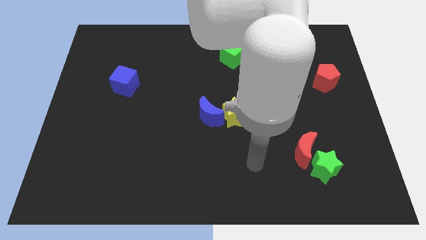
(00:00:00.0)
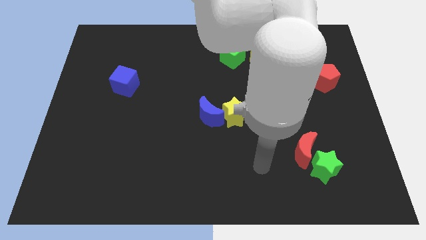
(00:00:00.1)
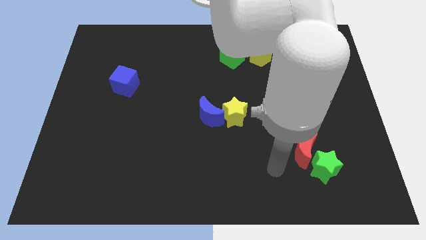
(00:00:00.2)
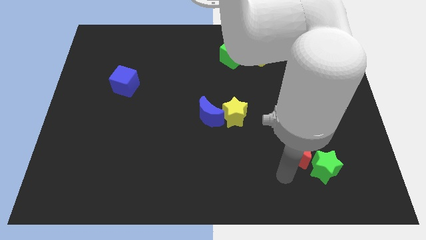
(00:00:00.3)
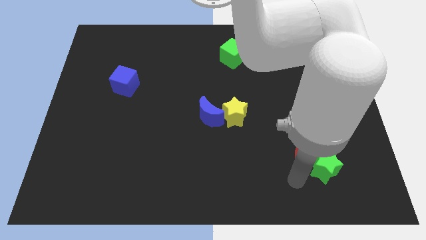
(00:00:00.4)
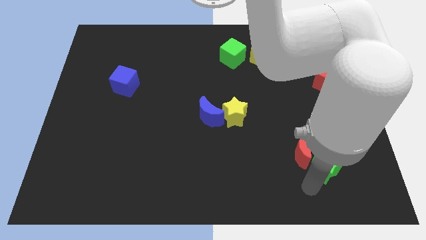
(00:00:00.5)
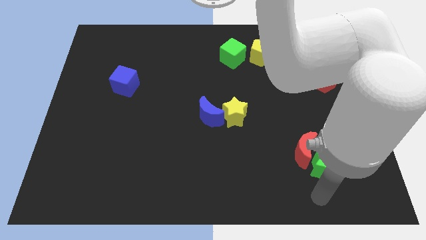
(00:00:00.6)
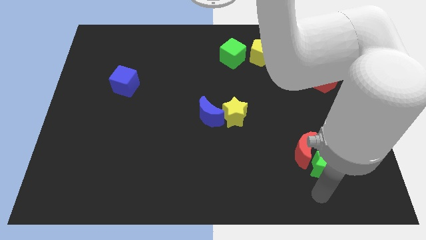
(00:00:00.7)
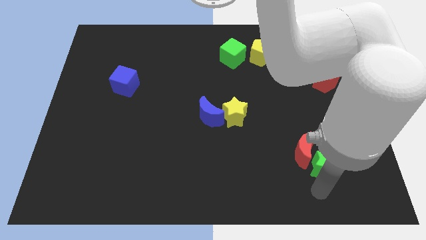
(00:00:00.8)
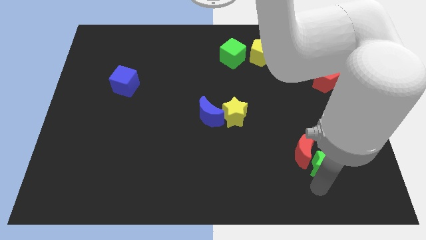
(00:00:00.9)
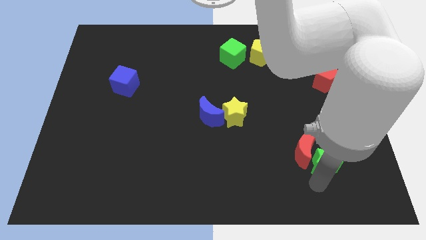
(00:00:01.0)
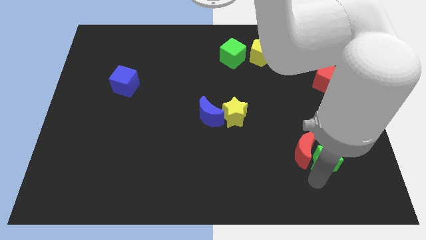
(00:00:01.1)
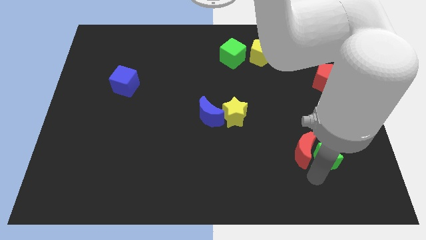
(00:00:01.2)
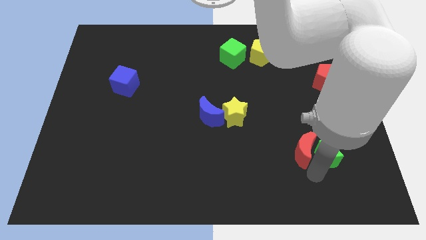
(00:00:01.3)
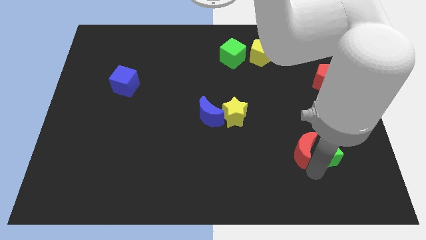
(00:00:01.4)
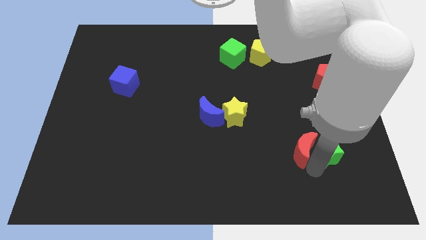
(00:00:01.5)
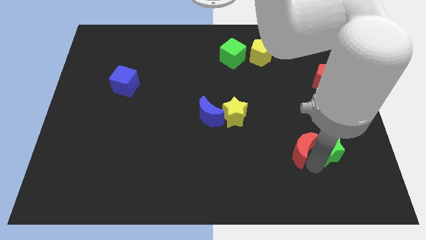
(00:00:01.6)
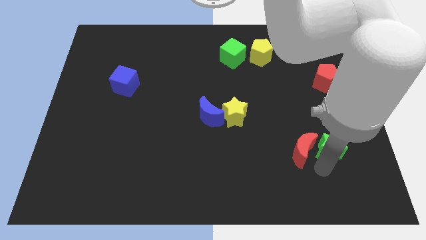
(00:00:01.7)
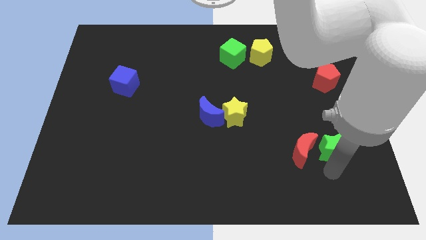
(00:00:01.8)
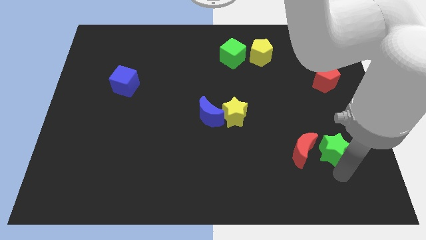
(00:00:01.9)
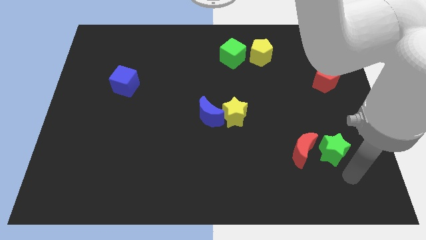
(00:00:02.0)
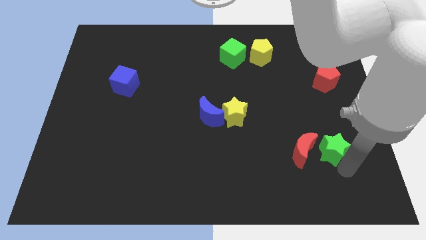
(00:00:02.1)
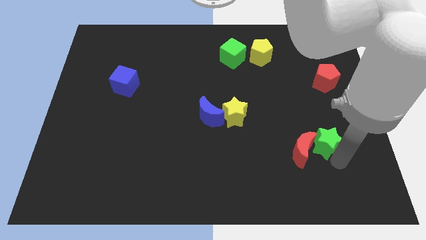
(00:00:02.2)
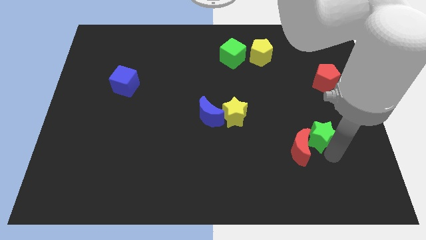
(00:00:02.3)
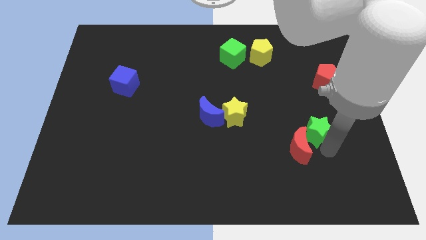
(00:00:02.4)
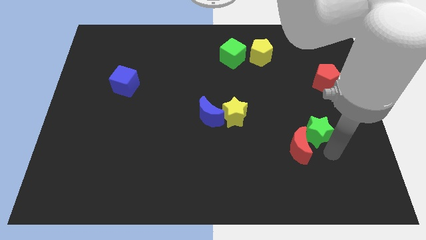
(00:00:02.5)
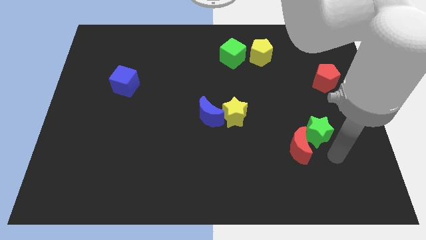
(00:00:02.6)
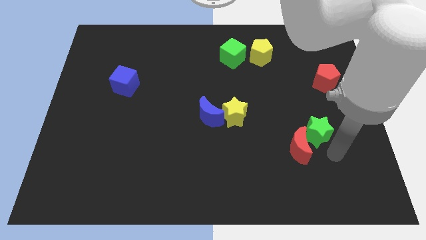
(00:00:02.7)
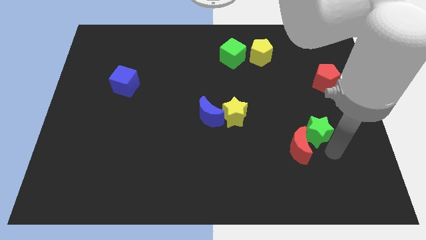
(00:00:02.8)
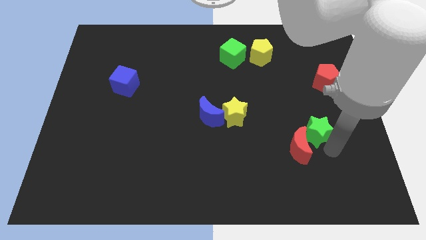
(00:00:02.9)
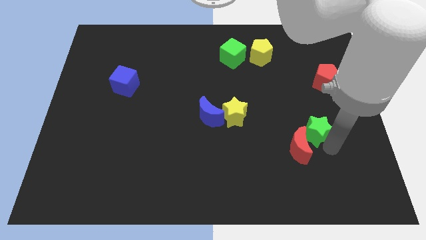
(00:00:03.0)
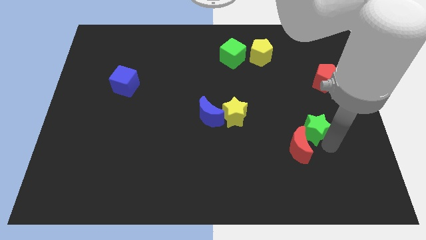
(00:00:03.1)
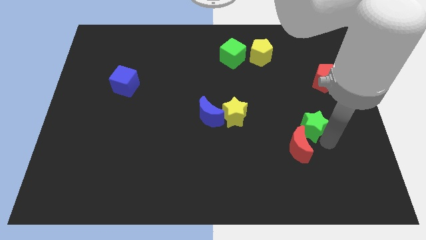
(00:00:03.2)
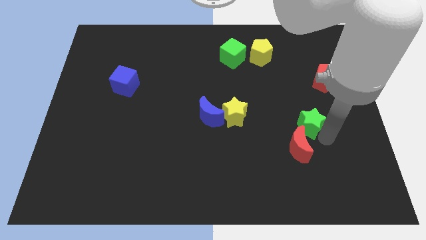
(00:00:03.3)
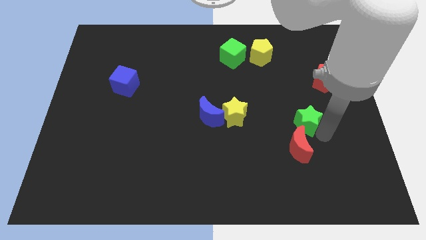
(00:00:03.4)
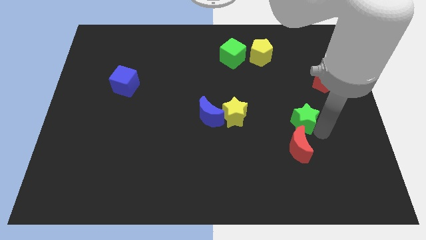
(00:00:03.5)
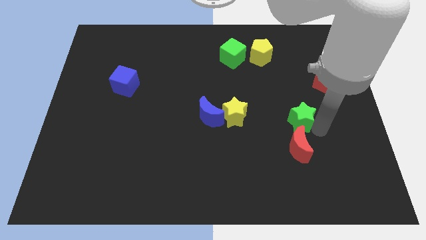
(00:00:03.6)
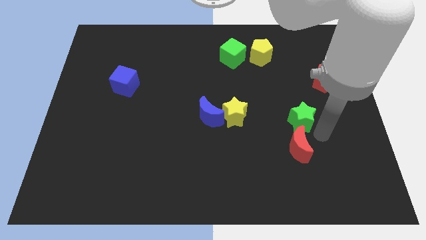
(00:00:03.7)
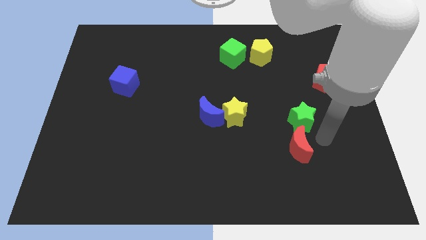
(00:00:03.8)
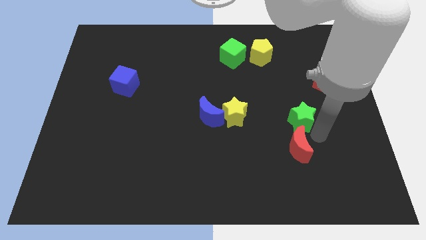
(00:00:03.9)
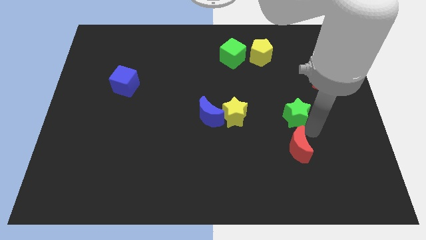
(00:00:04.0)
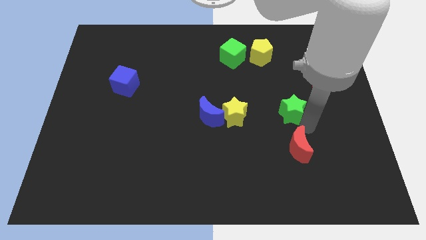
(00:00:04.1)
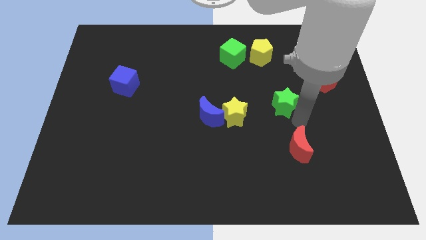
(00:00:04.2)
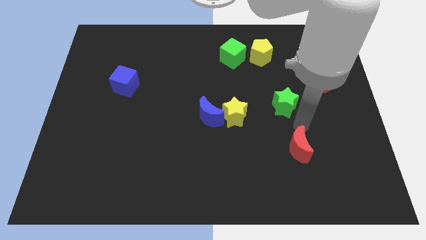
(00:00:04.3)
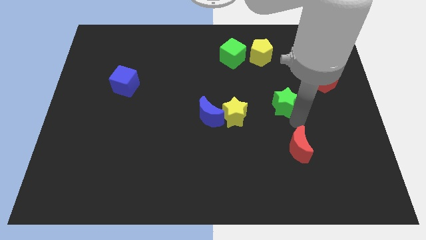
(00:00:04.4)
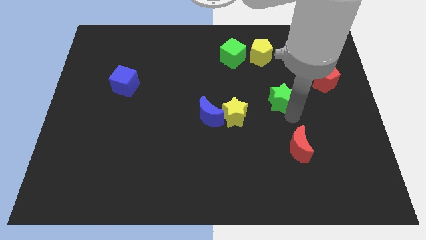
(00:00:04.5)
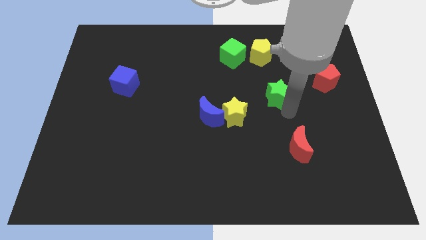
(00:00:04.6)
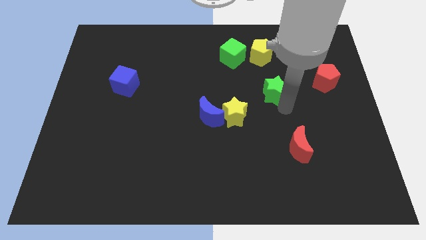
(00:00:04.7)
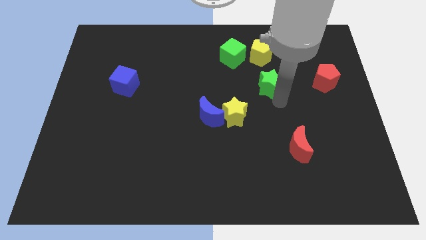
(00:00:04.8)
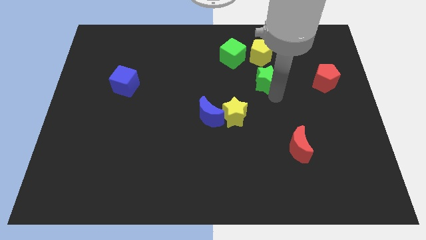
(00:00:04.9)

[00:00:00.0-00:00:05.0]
put the green star diagonally down and to the right of the green cube

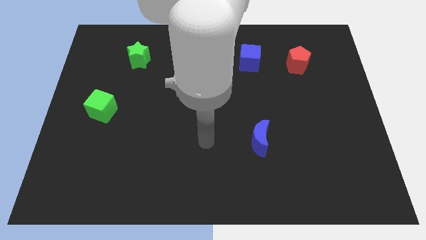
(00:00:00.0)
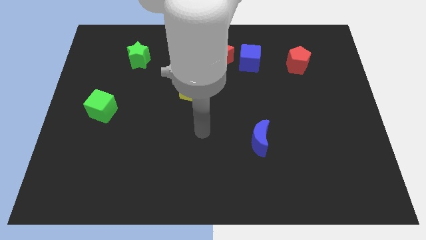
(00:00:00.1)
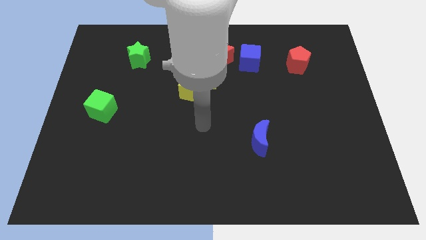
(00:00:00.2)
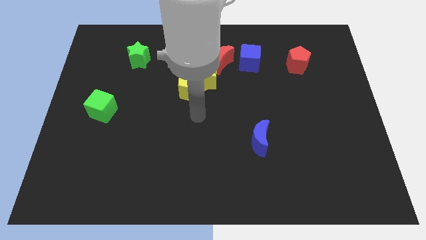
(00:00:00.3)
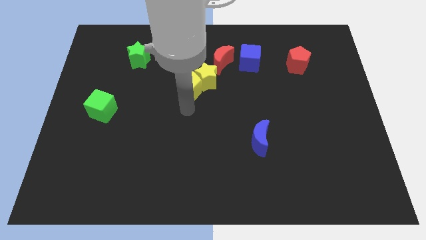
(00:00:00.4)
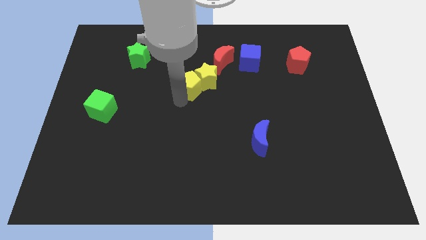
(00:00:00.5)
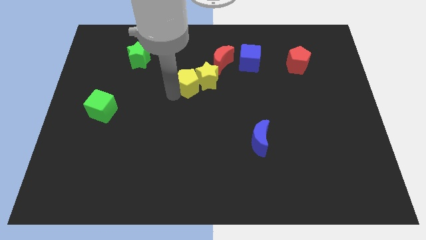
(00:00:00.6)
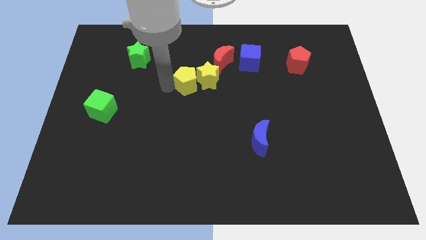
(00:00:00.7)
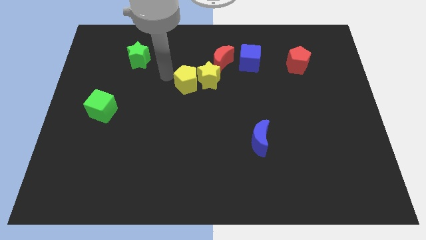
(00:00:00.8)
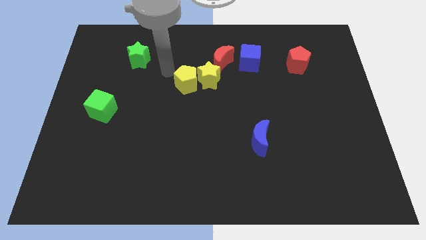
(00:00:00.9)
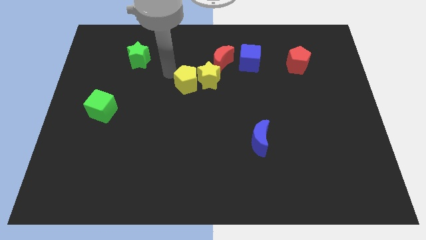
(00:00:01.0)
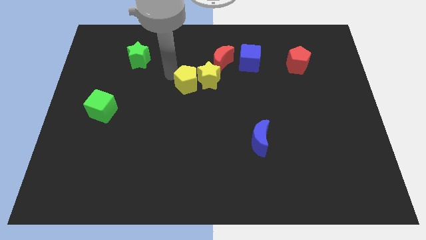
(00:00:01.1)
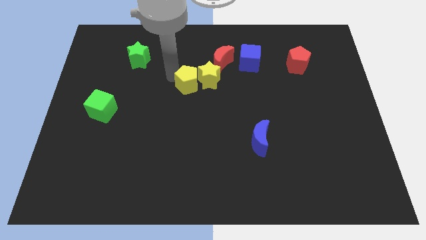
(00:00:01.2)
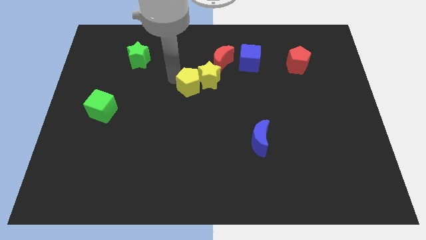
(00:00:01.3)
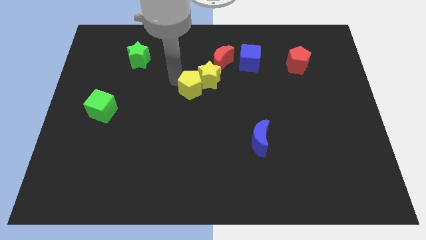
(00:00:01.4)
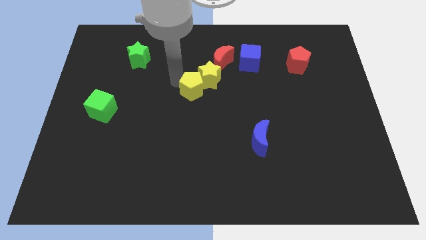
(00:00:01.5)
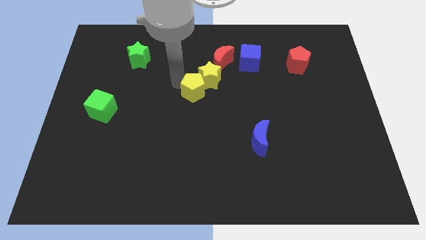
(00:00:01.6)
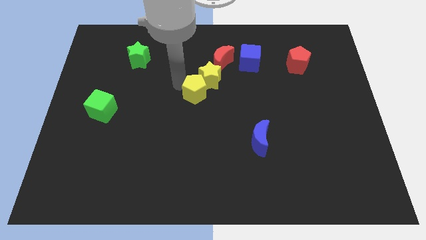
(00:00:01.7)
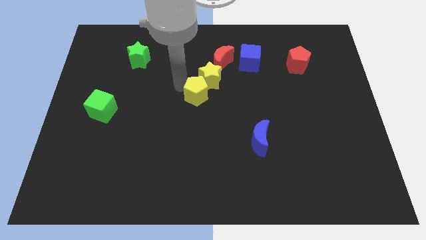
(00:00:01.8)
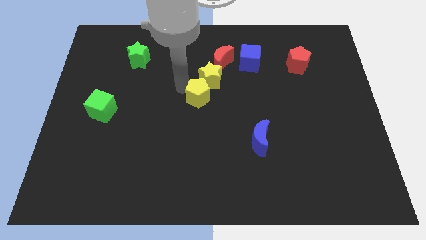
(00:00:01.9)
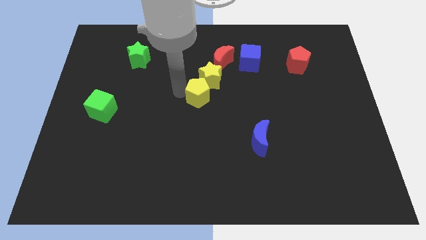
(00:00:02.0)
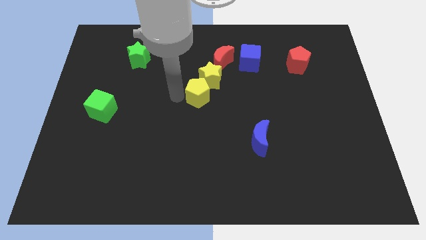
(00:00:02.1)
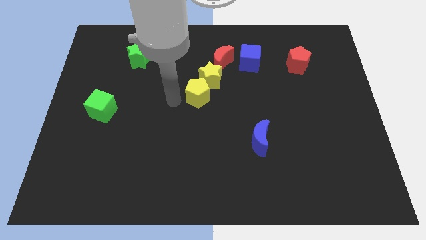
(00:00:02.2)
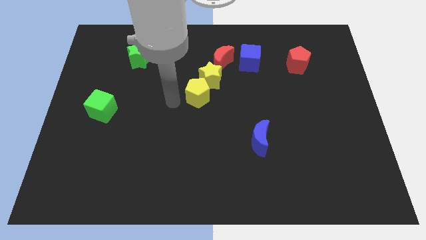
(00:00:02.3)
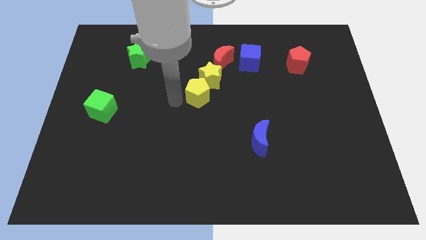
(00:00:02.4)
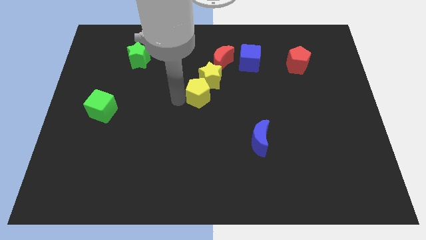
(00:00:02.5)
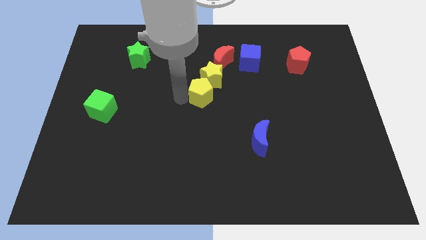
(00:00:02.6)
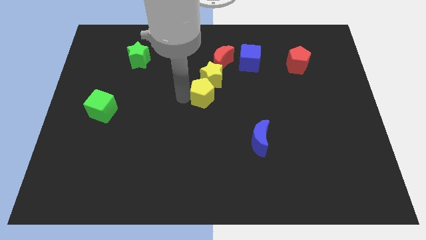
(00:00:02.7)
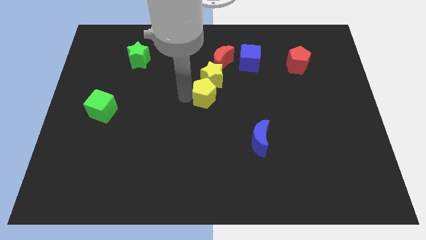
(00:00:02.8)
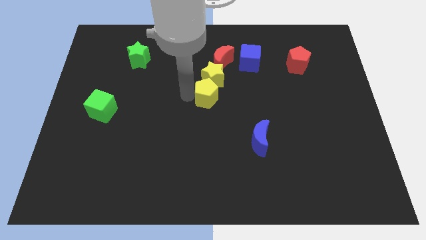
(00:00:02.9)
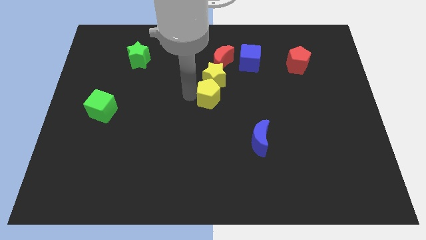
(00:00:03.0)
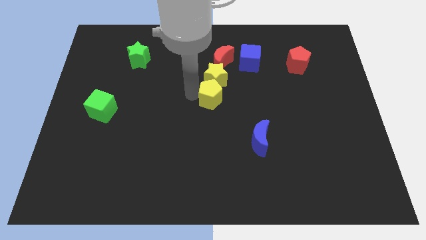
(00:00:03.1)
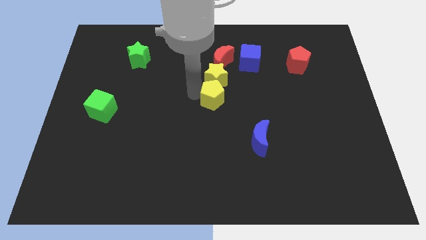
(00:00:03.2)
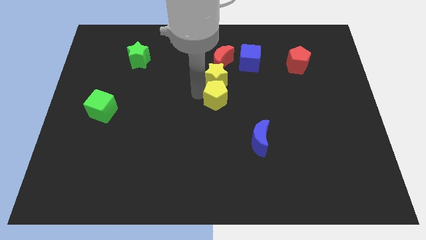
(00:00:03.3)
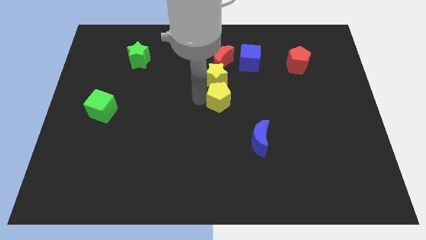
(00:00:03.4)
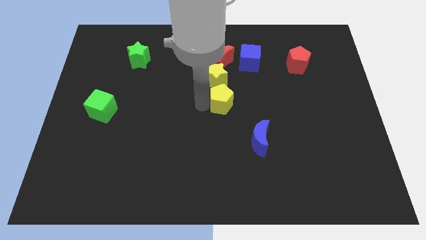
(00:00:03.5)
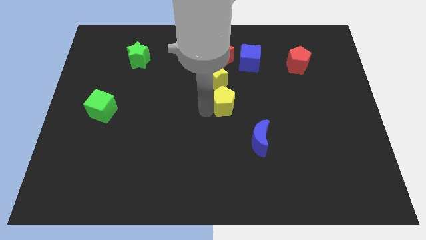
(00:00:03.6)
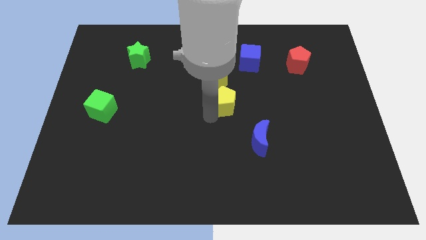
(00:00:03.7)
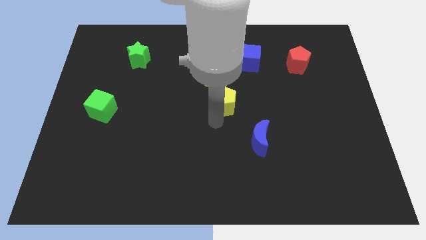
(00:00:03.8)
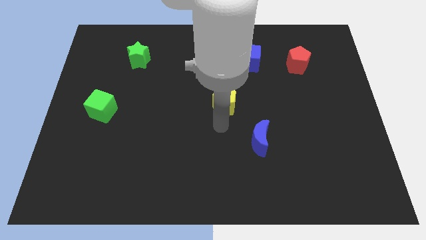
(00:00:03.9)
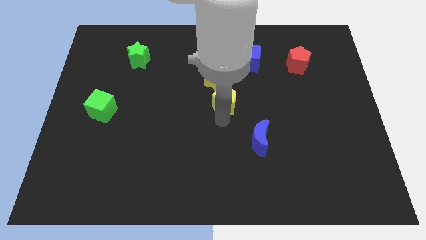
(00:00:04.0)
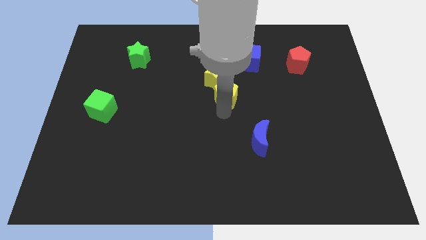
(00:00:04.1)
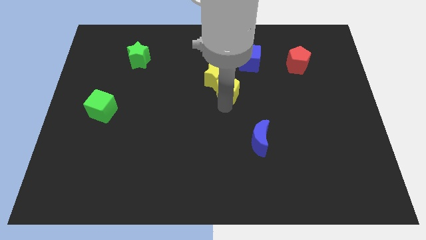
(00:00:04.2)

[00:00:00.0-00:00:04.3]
push the yellow pentagon to the bottom left of the blue cube
